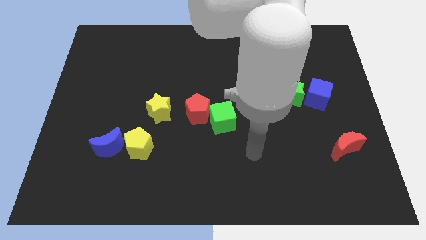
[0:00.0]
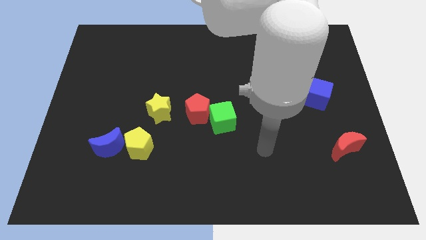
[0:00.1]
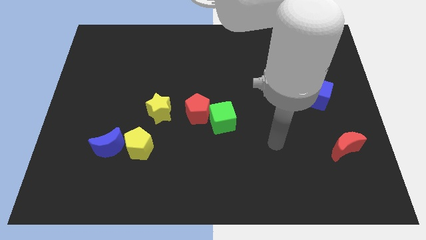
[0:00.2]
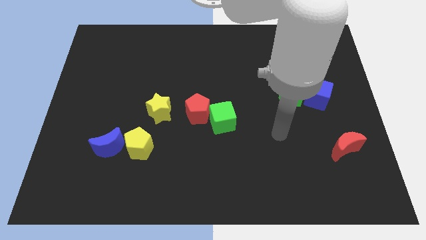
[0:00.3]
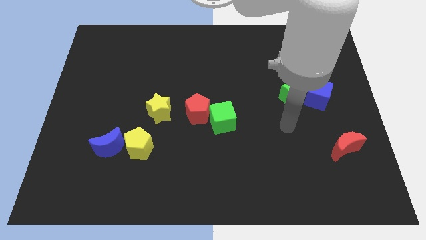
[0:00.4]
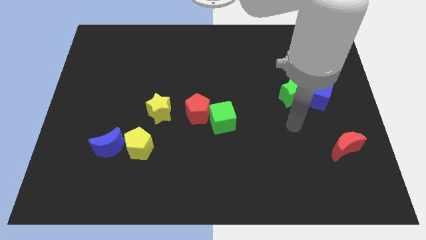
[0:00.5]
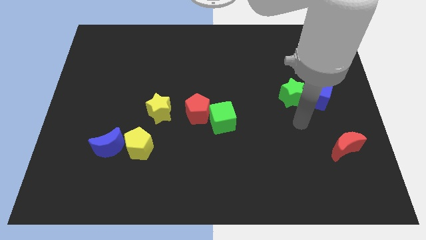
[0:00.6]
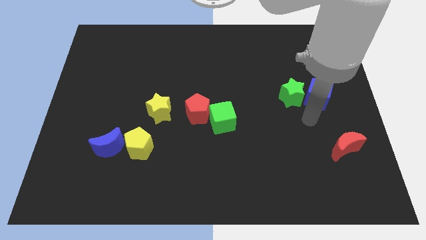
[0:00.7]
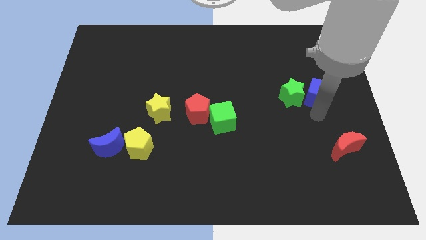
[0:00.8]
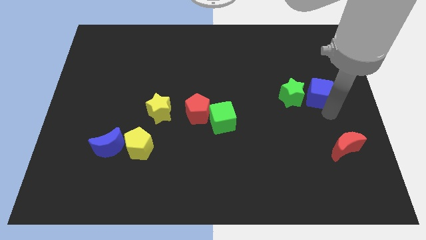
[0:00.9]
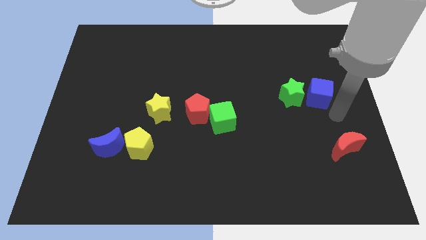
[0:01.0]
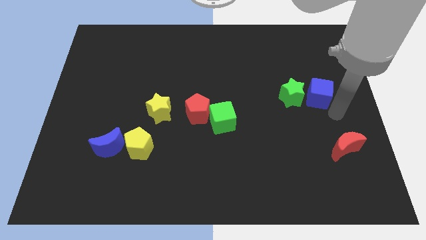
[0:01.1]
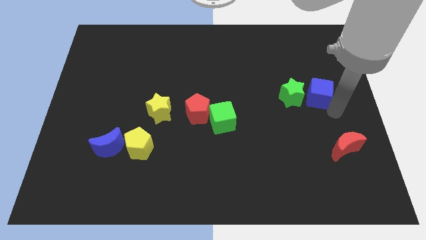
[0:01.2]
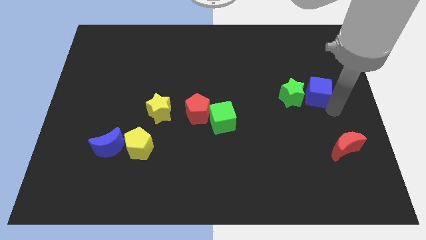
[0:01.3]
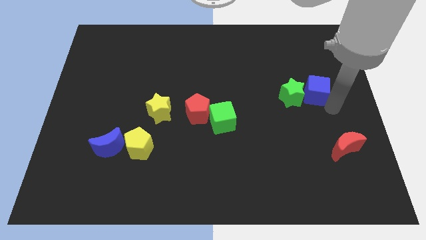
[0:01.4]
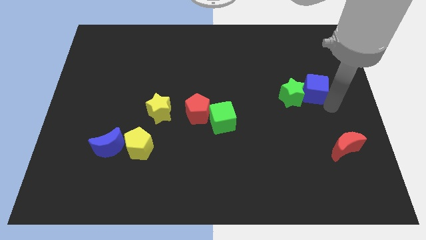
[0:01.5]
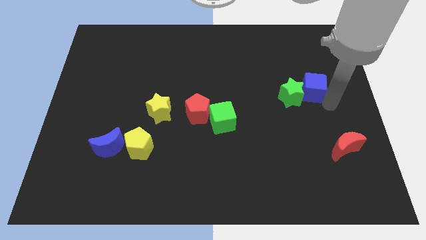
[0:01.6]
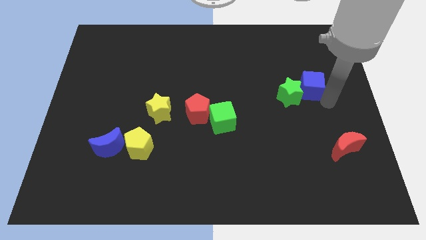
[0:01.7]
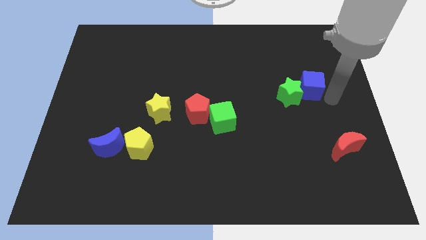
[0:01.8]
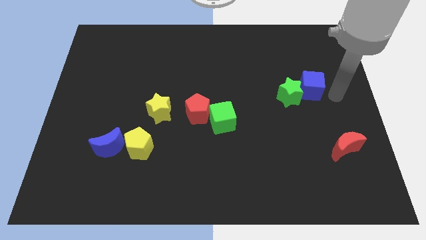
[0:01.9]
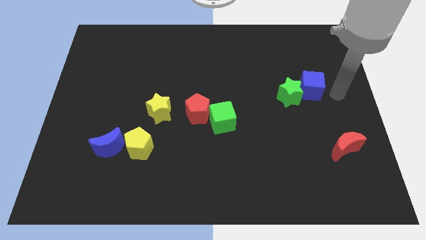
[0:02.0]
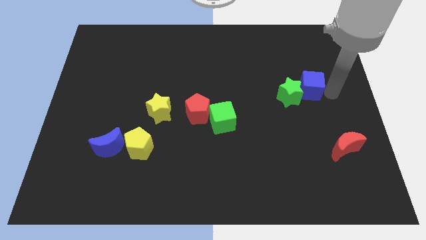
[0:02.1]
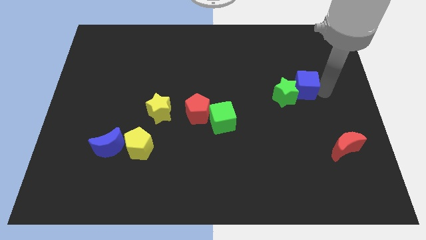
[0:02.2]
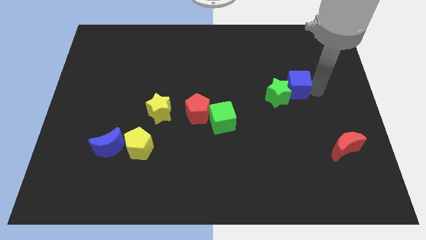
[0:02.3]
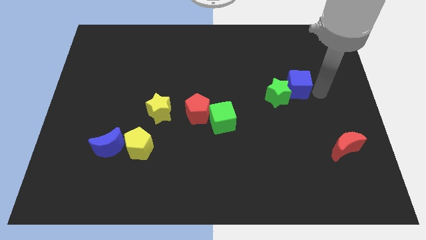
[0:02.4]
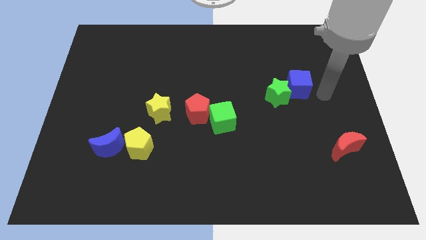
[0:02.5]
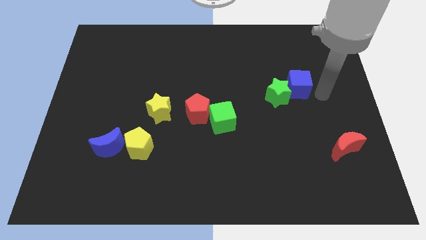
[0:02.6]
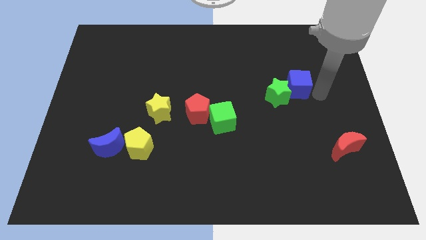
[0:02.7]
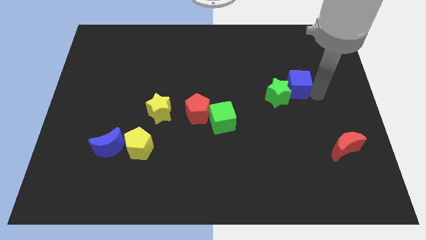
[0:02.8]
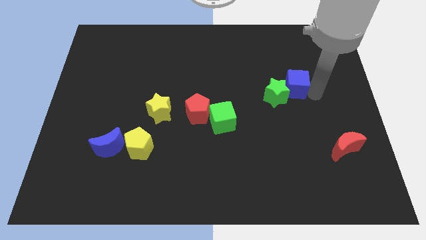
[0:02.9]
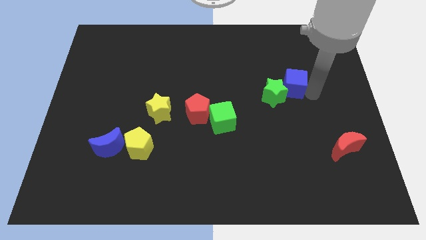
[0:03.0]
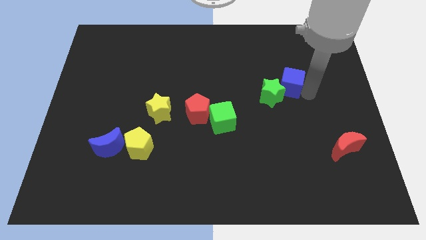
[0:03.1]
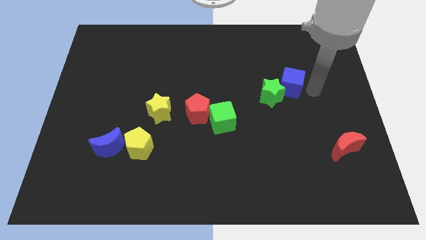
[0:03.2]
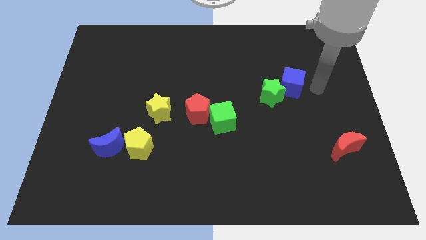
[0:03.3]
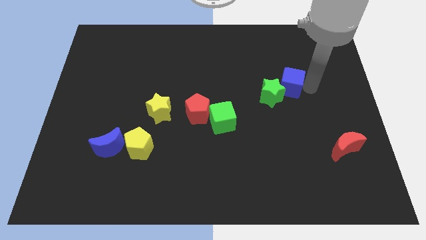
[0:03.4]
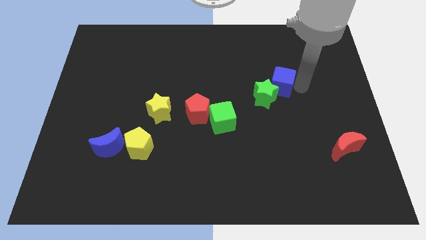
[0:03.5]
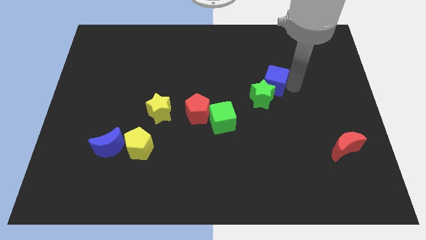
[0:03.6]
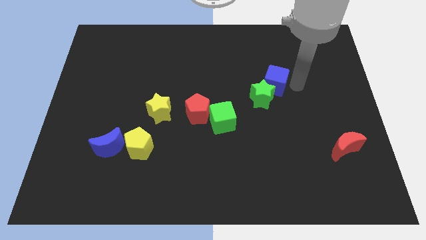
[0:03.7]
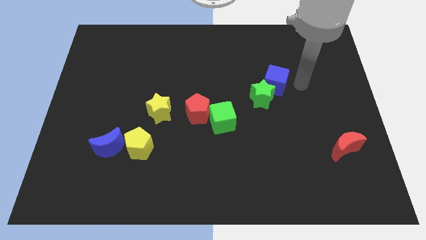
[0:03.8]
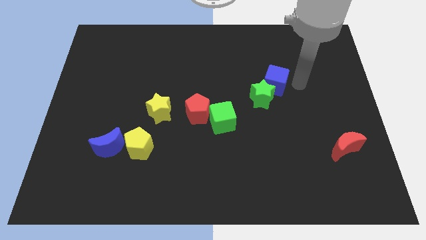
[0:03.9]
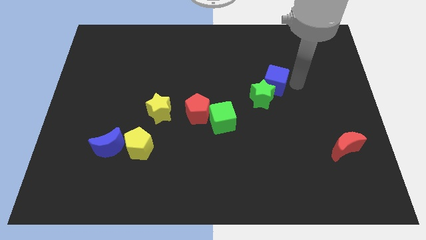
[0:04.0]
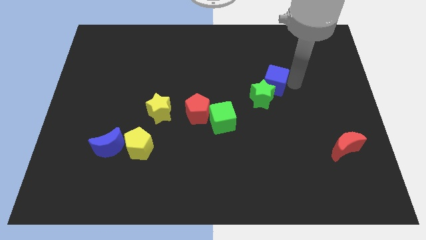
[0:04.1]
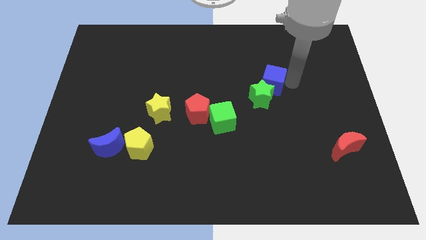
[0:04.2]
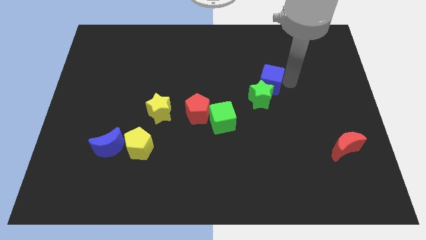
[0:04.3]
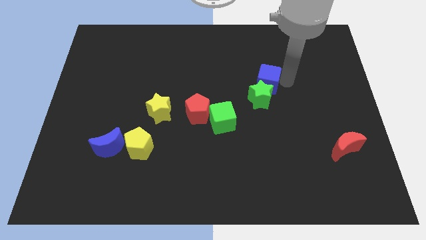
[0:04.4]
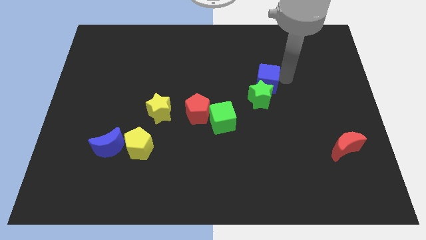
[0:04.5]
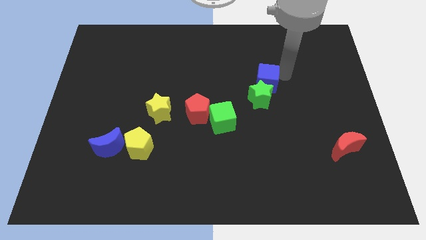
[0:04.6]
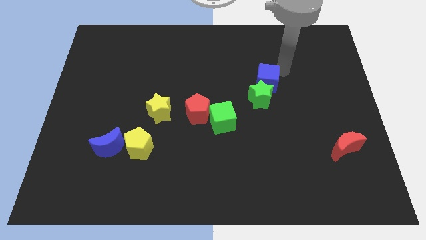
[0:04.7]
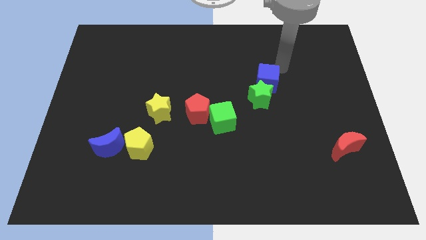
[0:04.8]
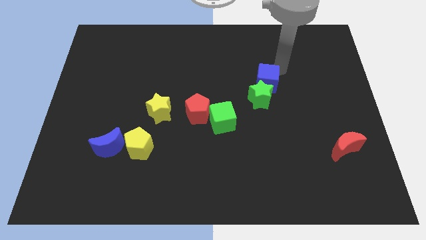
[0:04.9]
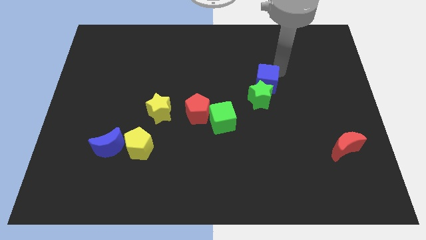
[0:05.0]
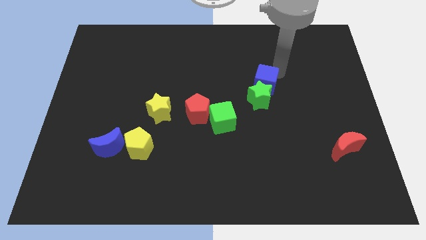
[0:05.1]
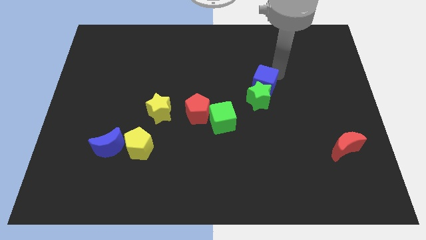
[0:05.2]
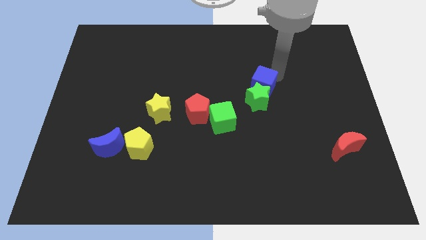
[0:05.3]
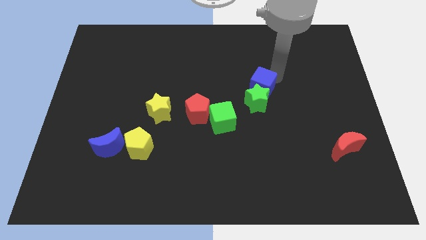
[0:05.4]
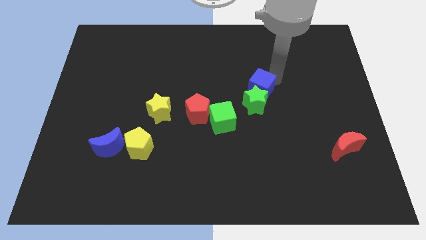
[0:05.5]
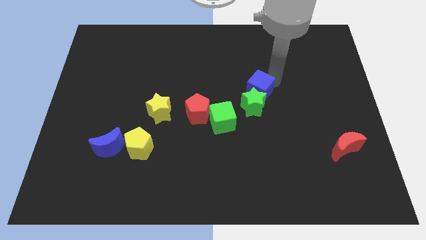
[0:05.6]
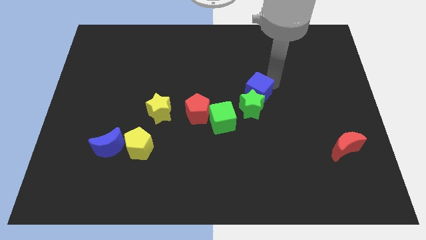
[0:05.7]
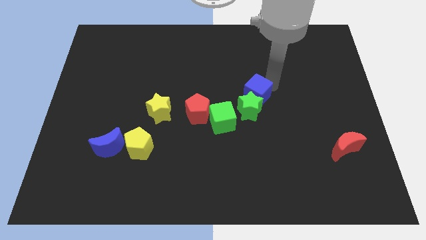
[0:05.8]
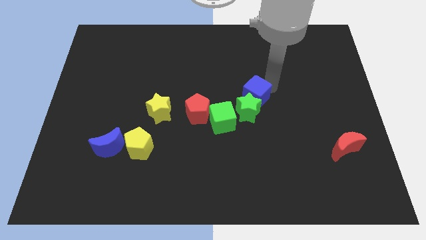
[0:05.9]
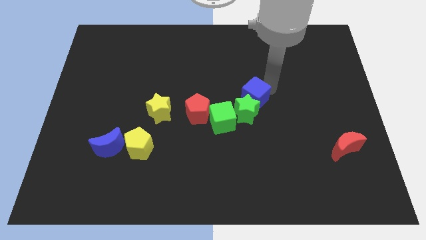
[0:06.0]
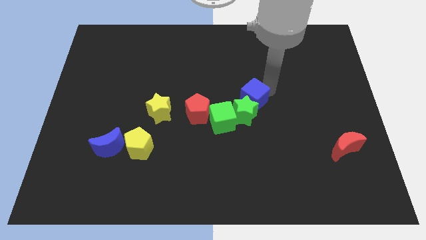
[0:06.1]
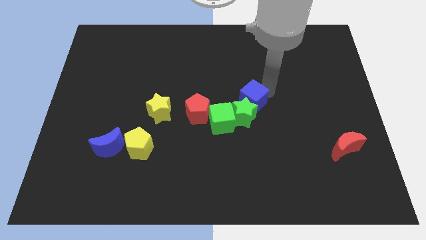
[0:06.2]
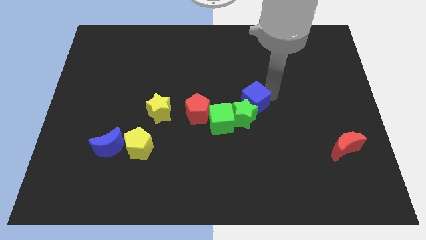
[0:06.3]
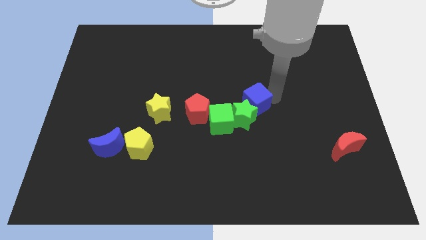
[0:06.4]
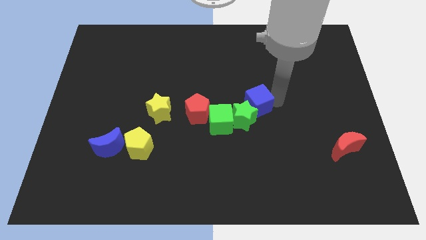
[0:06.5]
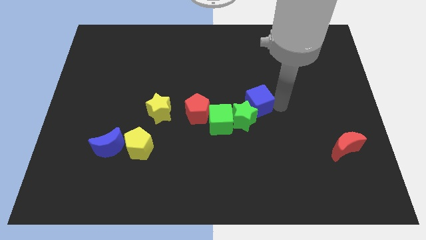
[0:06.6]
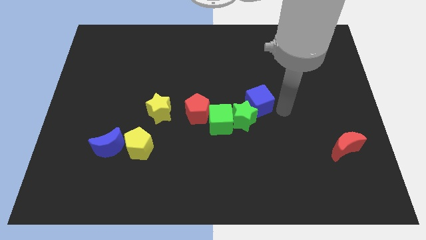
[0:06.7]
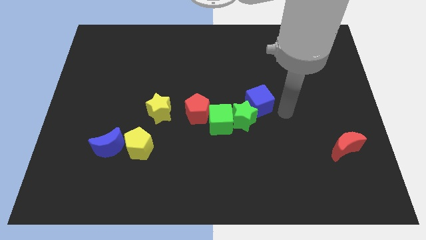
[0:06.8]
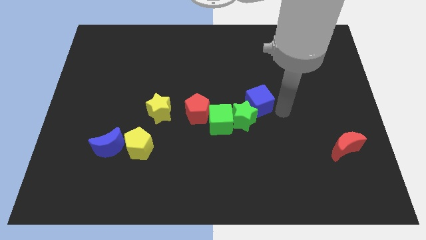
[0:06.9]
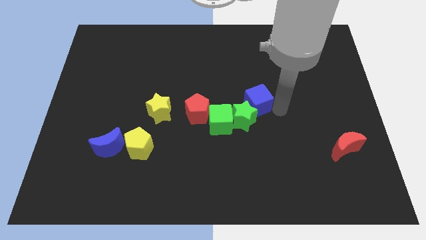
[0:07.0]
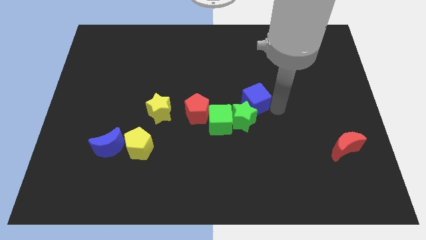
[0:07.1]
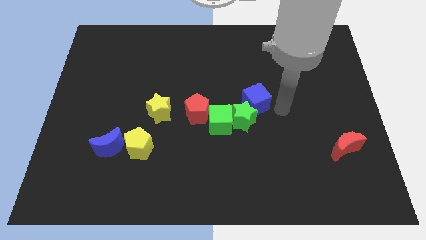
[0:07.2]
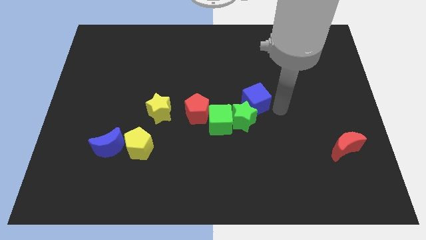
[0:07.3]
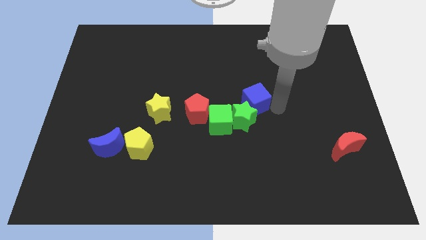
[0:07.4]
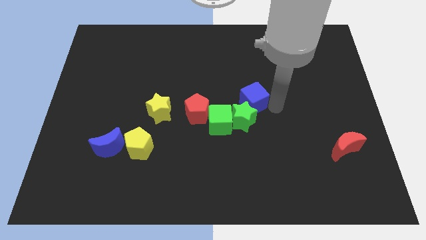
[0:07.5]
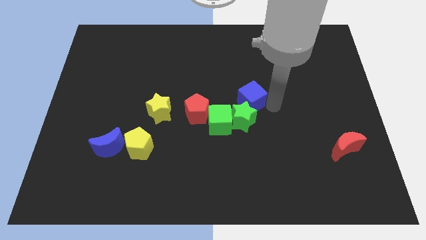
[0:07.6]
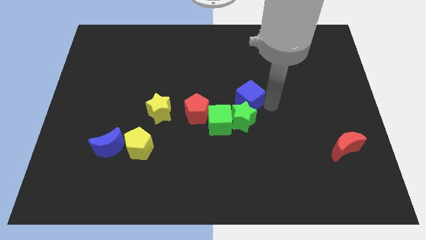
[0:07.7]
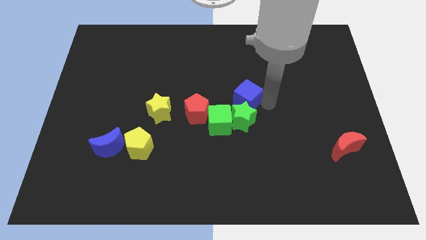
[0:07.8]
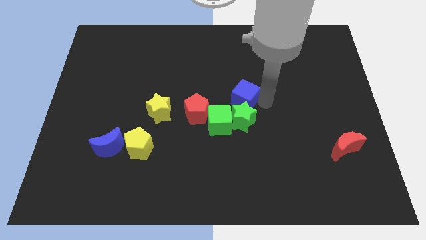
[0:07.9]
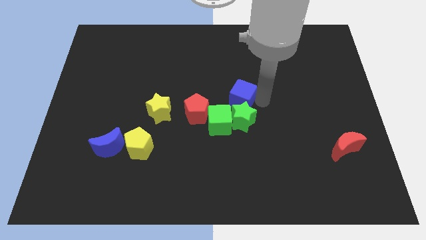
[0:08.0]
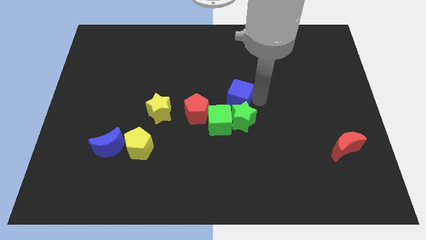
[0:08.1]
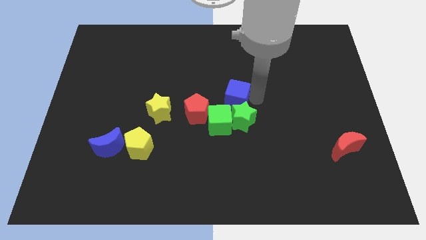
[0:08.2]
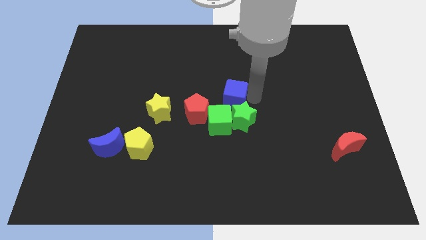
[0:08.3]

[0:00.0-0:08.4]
slide the blue cube left
